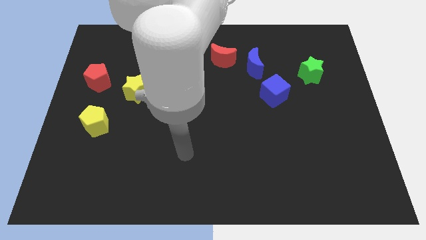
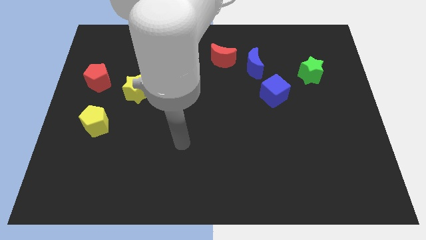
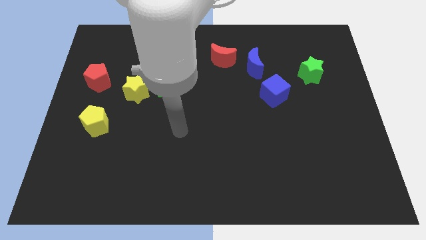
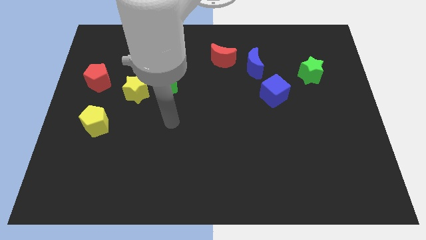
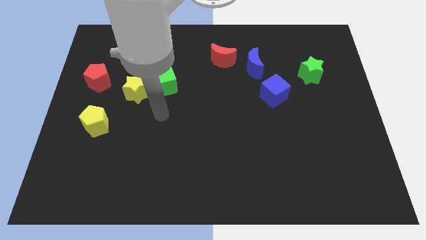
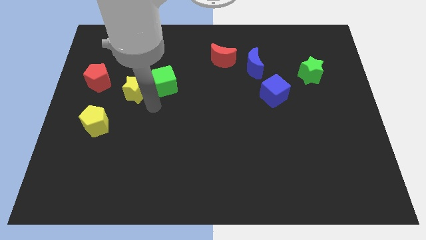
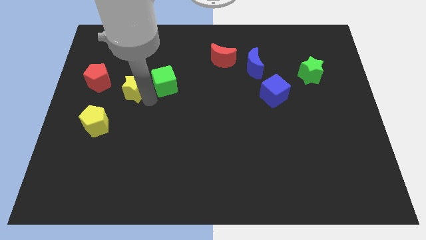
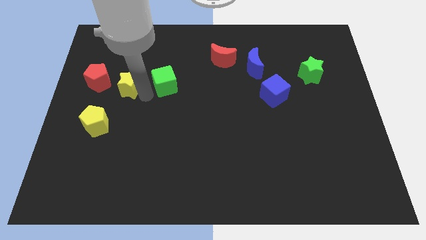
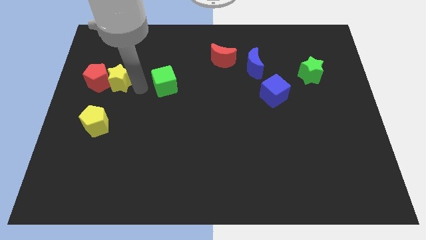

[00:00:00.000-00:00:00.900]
pull the green cube apart from the yellow star

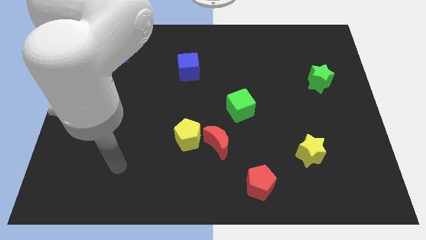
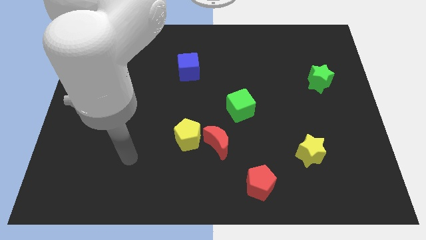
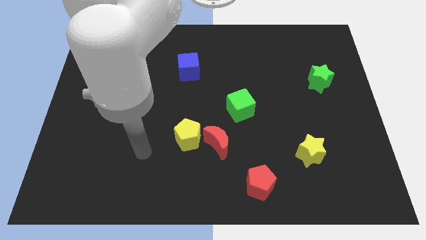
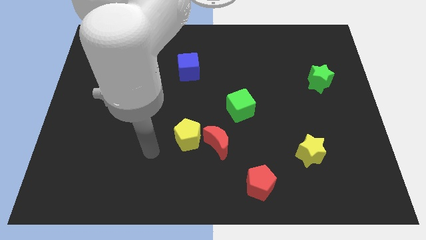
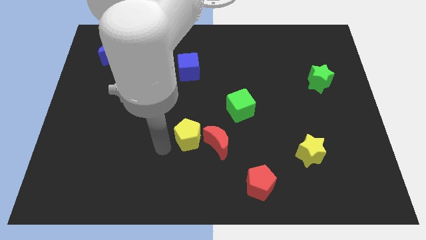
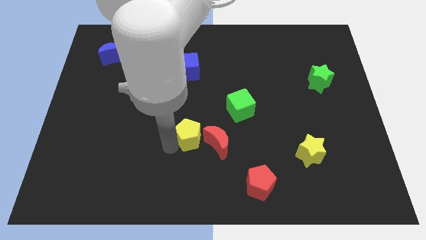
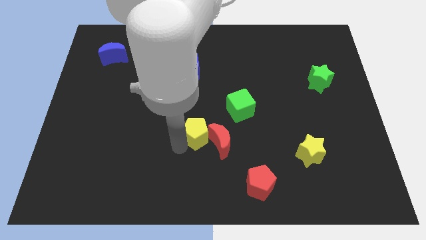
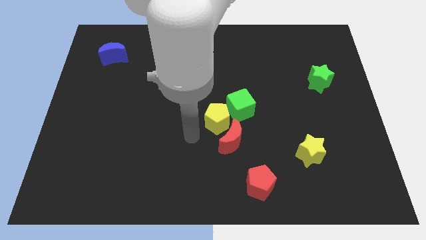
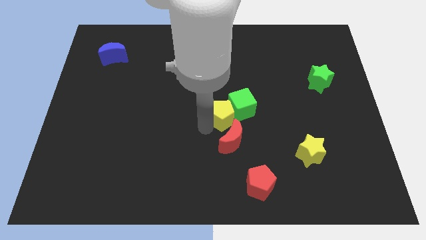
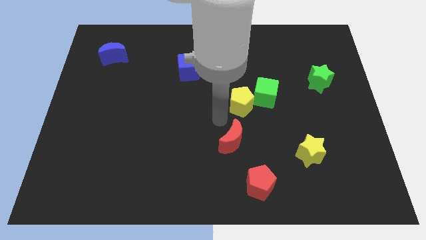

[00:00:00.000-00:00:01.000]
pull the red moon apart from the yellow pentagon

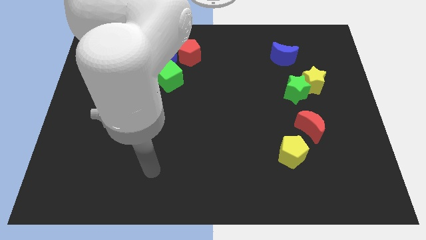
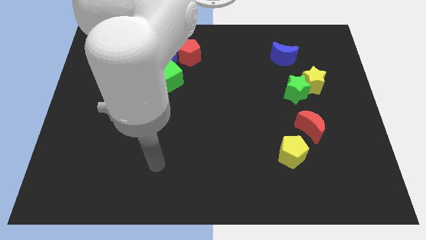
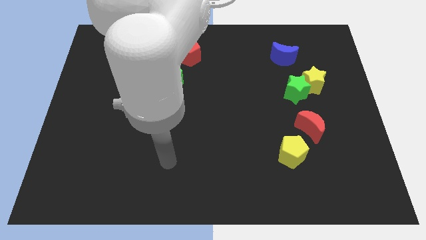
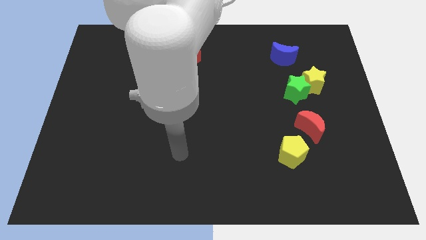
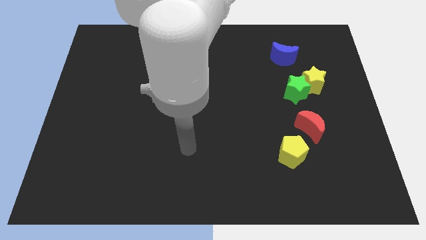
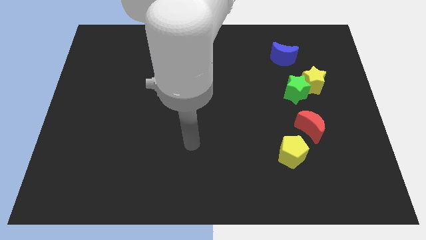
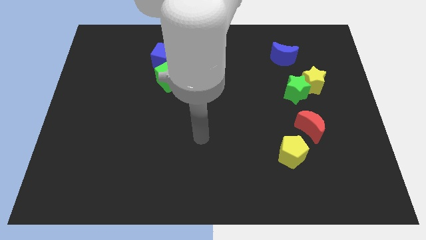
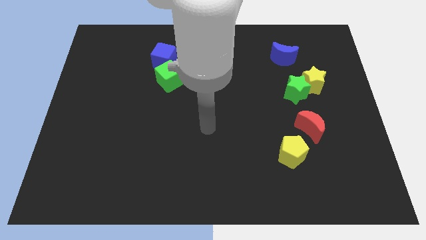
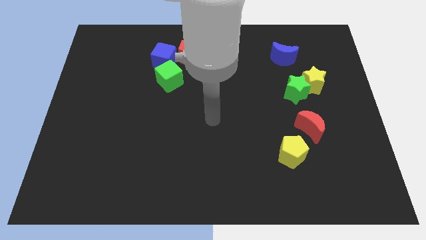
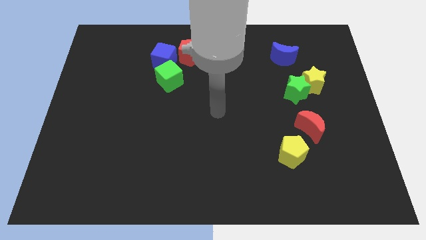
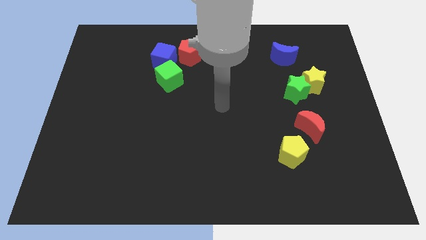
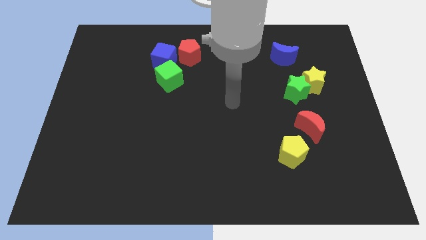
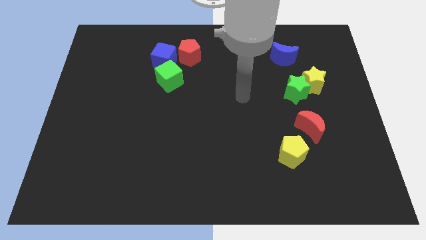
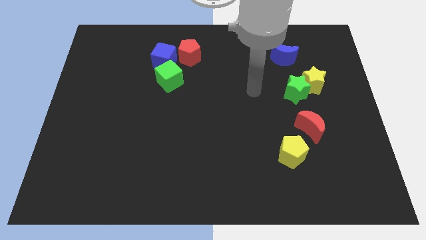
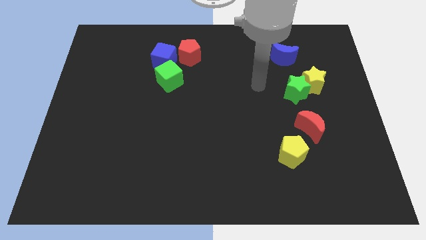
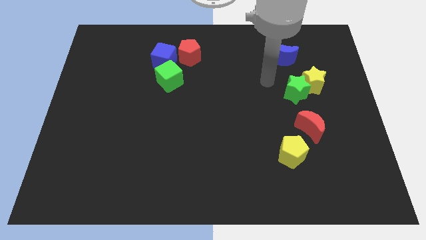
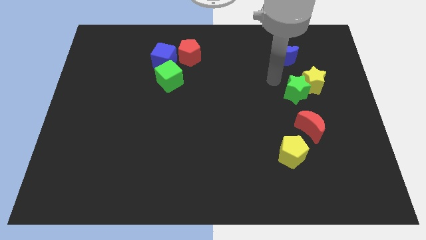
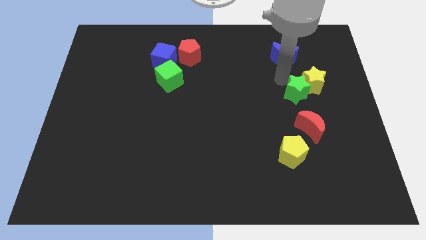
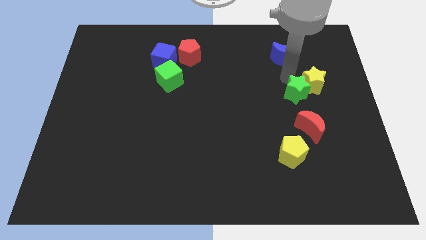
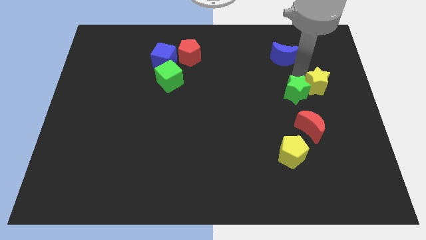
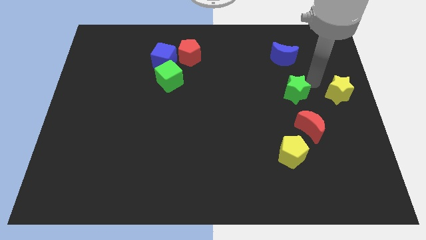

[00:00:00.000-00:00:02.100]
pull the green star apart from the yellow star

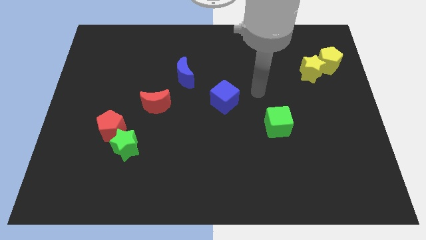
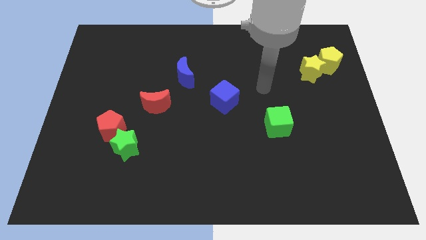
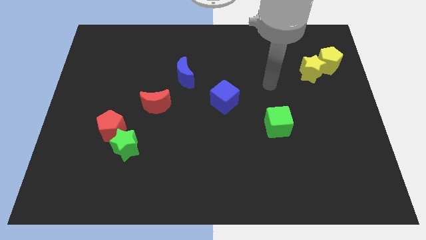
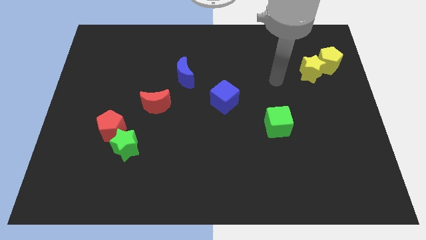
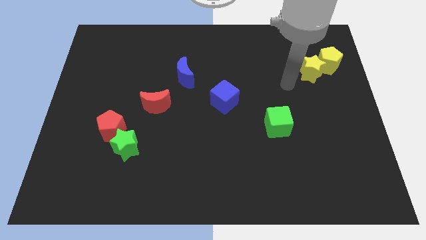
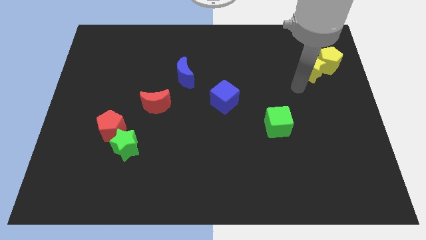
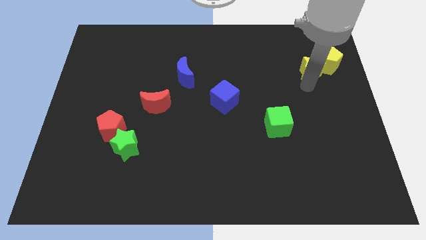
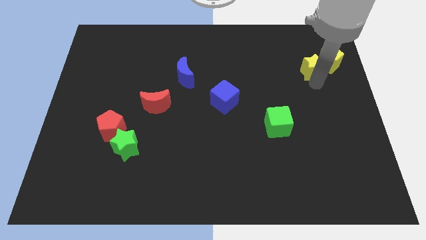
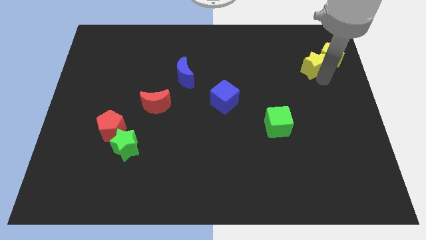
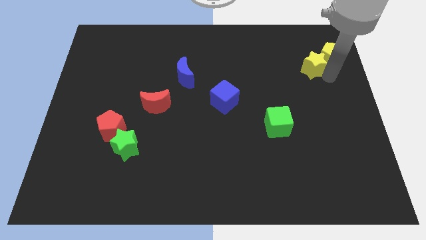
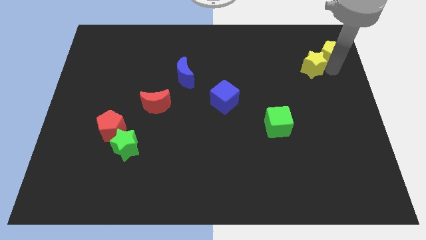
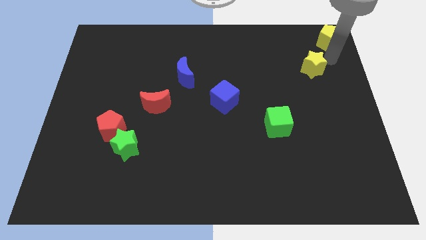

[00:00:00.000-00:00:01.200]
pull the yellow star apart from the yellow pentagon

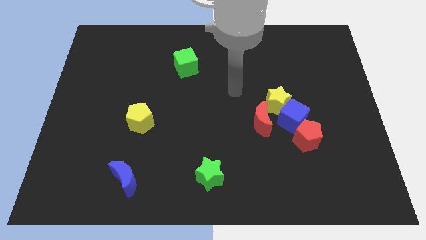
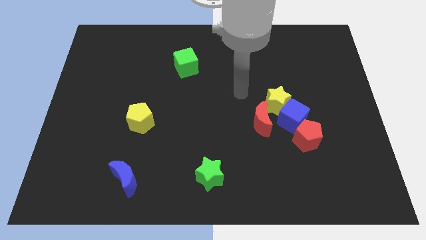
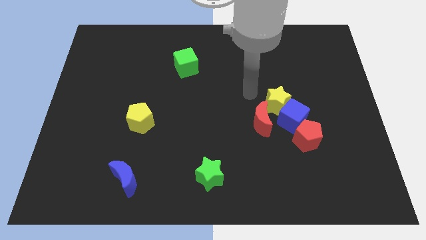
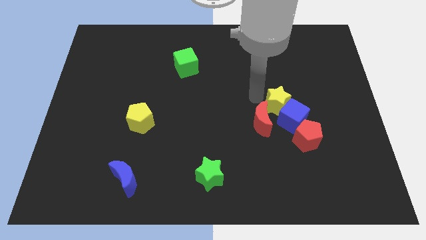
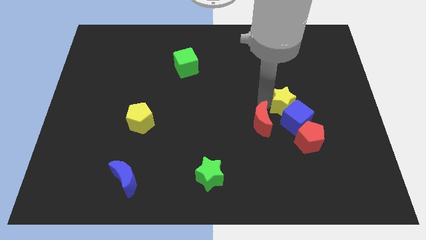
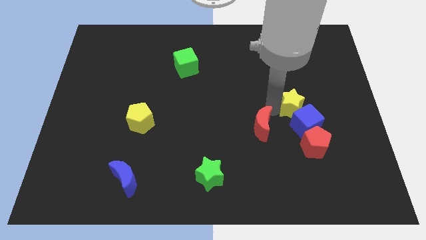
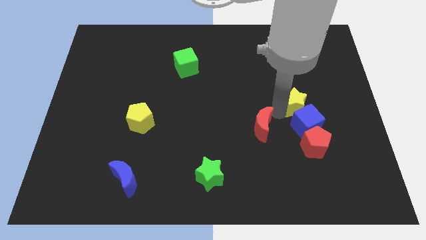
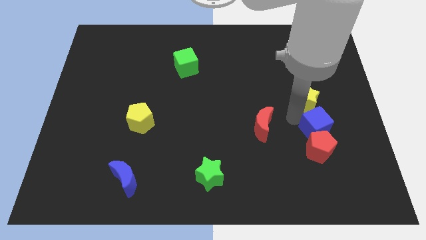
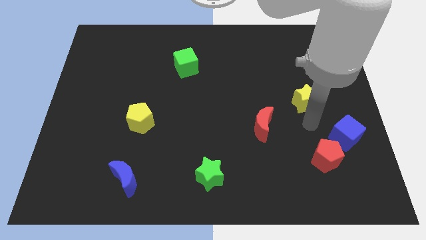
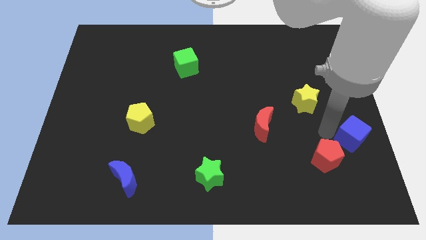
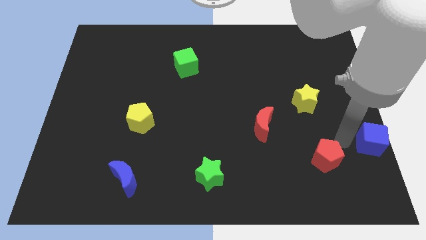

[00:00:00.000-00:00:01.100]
separate the red pentagon from the blue cube

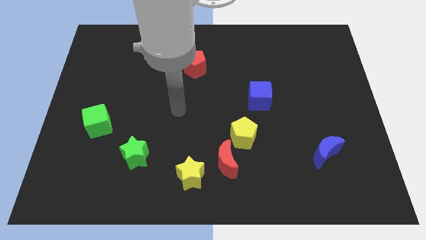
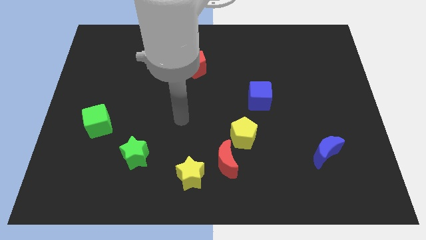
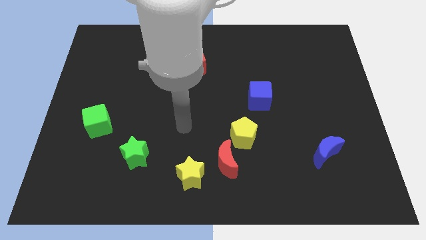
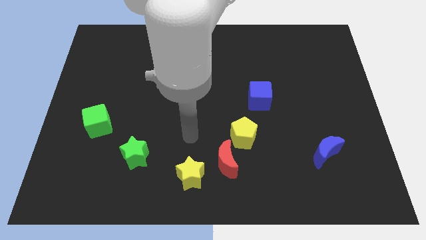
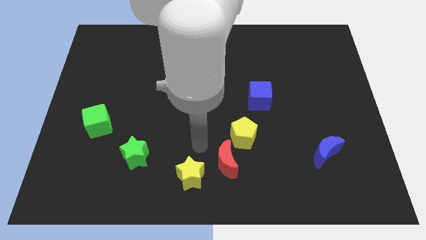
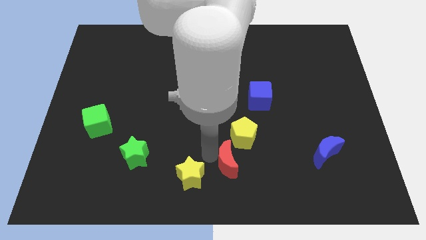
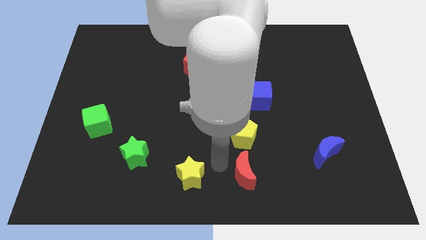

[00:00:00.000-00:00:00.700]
pull the yellow star apart from the red moon

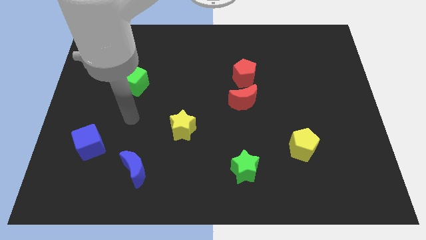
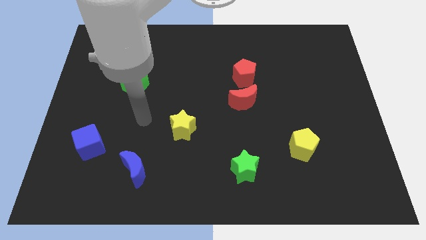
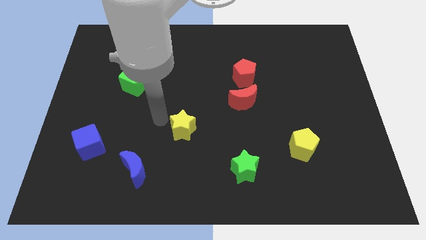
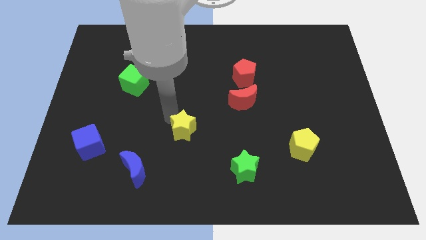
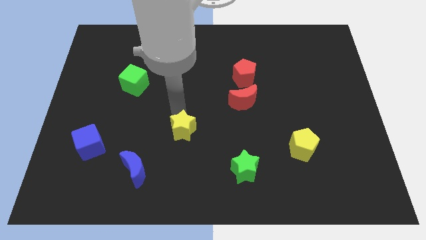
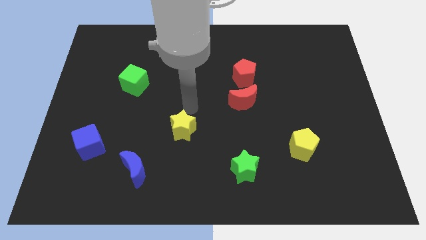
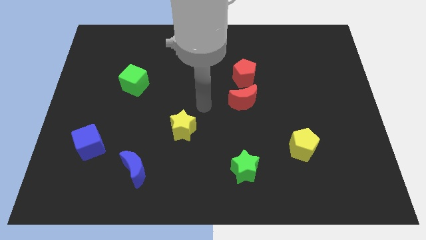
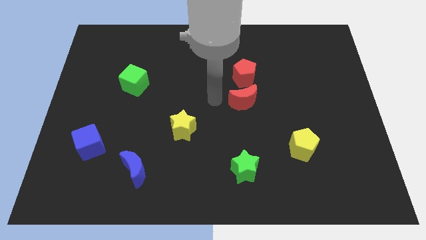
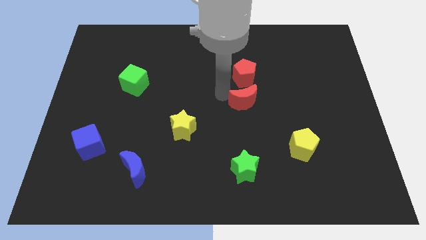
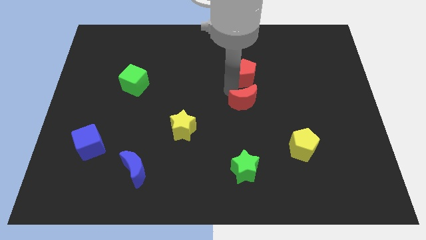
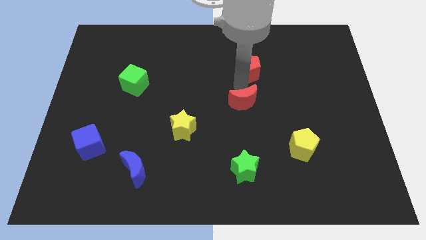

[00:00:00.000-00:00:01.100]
pull the red moon apart from the red pentagon

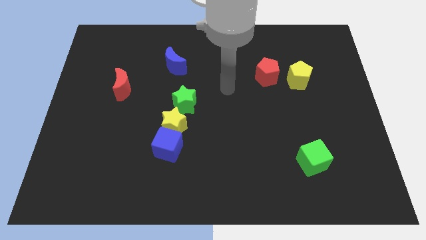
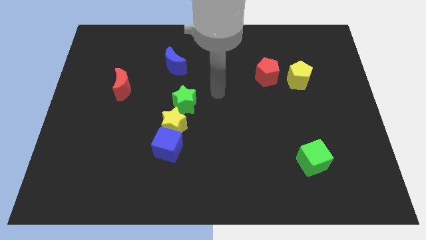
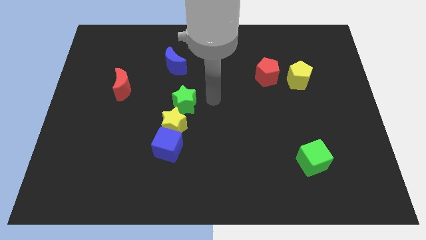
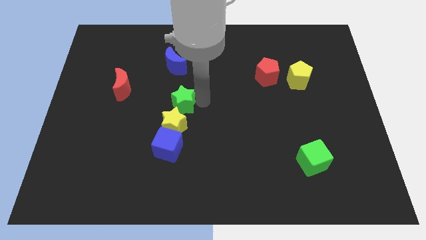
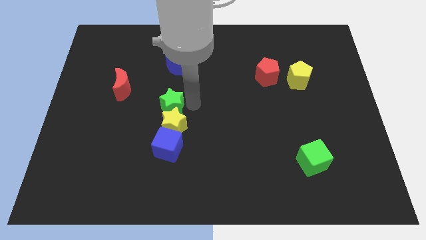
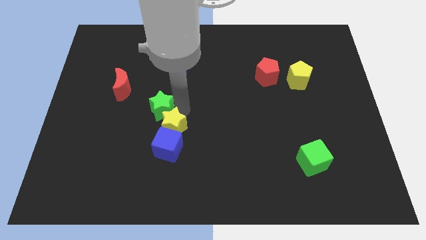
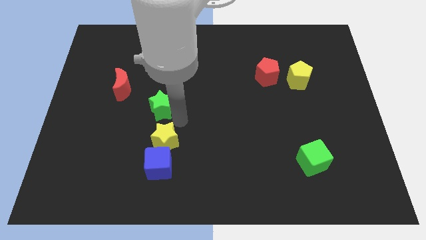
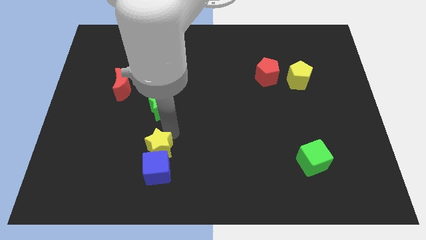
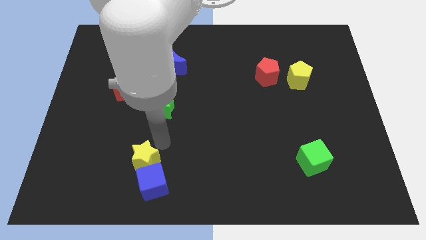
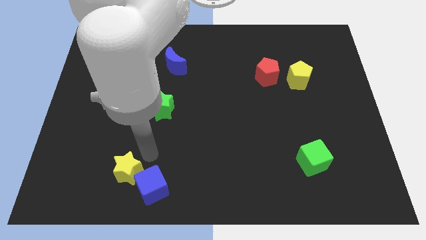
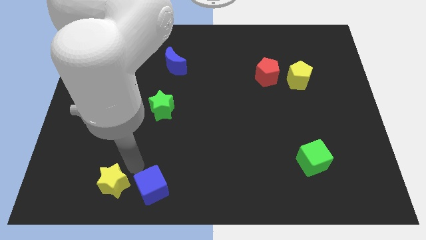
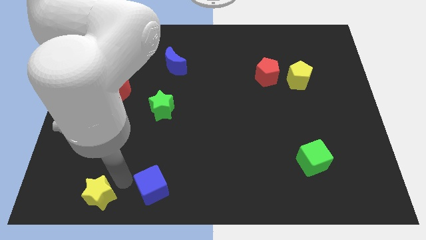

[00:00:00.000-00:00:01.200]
pull the blue cube apart from the yellow star

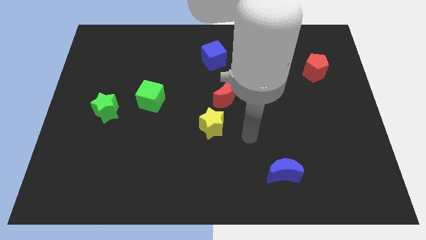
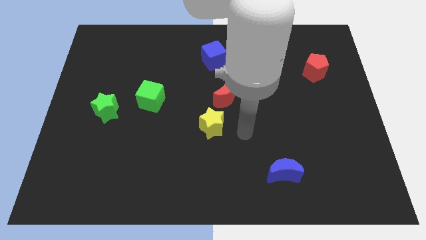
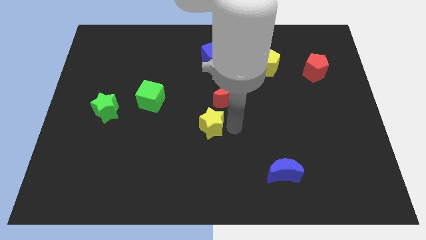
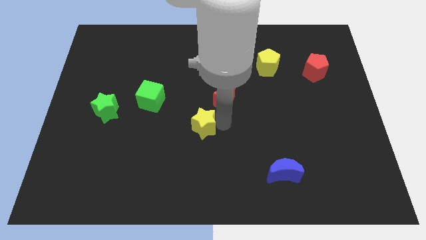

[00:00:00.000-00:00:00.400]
separate the red moon from the yellow star
